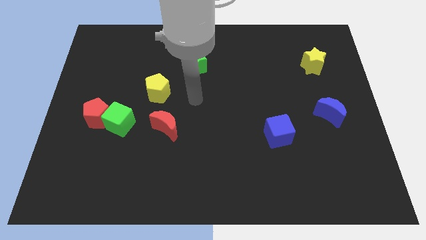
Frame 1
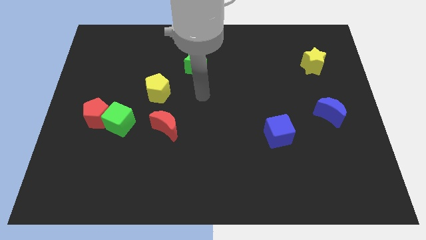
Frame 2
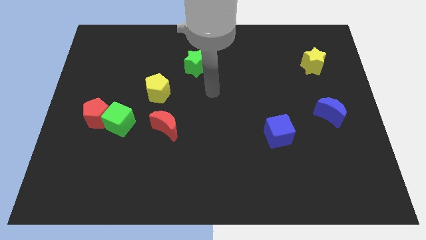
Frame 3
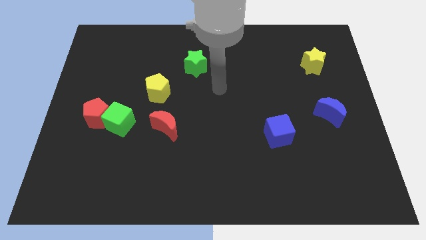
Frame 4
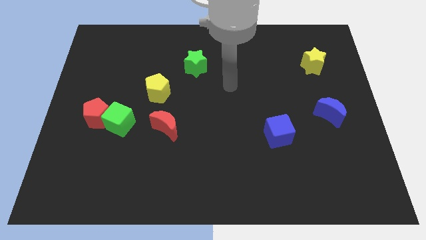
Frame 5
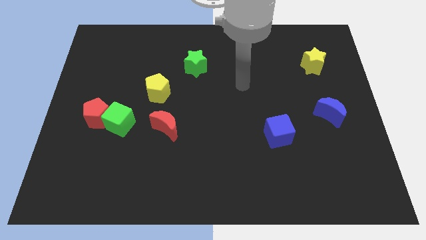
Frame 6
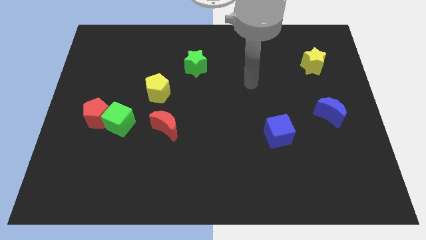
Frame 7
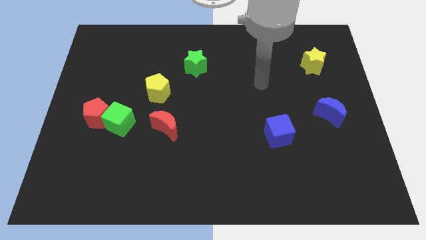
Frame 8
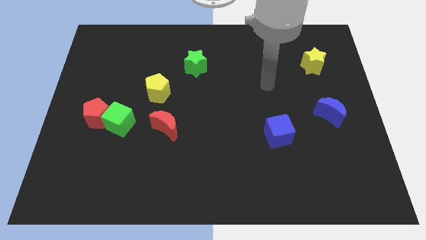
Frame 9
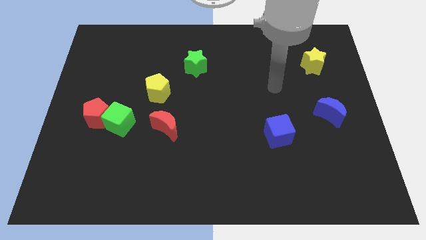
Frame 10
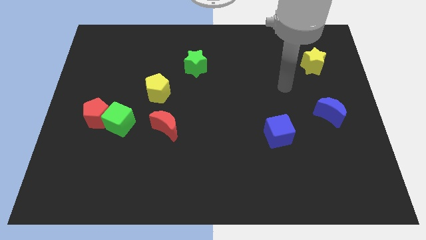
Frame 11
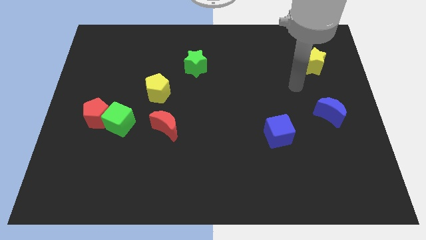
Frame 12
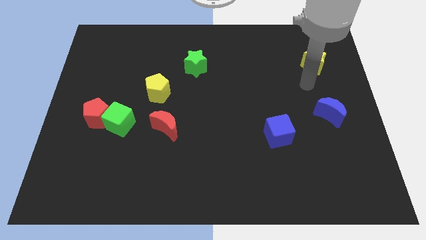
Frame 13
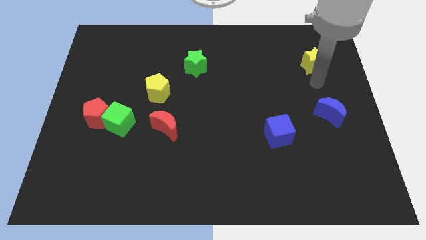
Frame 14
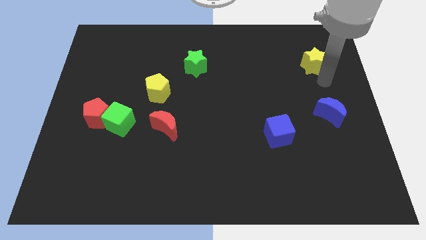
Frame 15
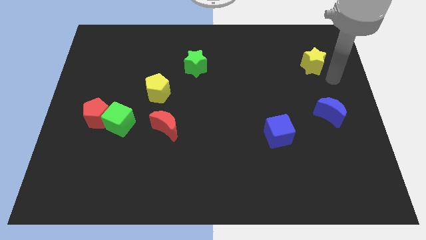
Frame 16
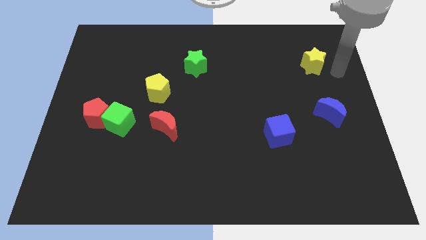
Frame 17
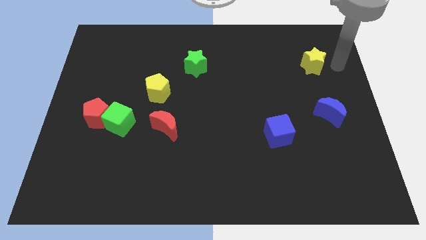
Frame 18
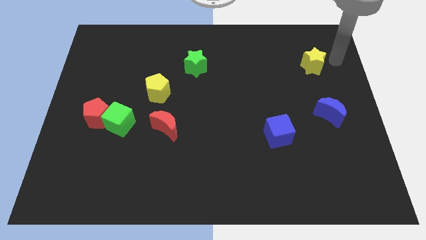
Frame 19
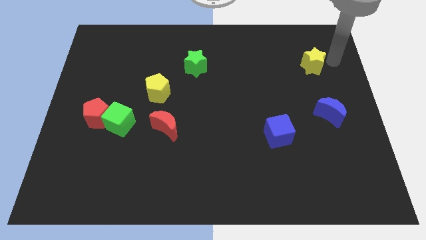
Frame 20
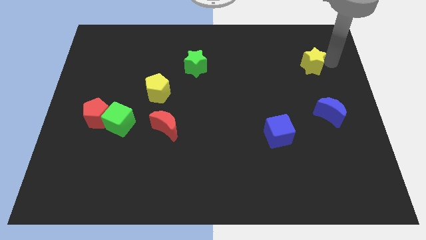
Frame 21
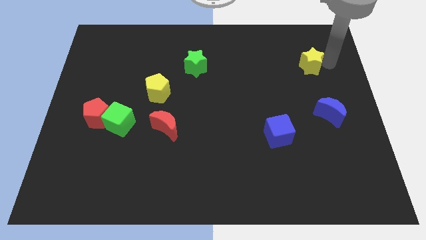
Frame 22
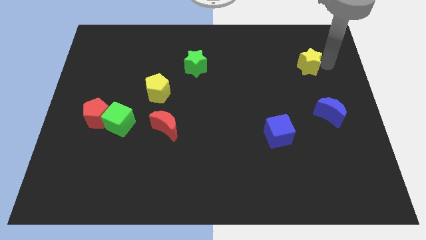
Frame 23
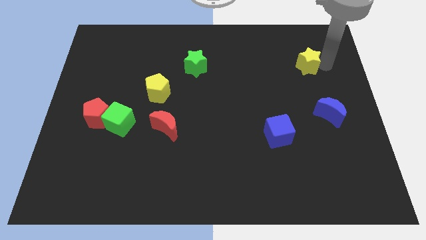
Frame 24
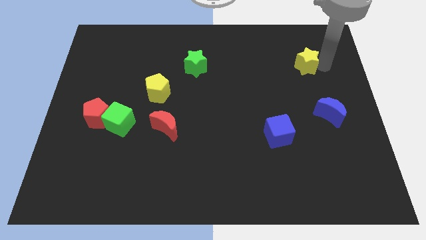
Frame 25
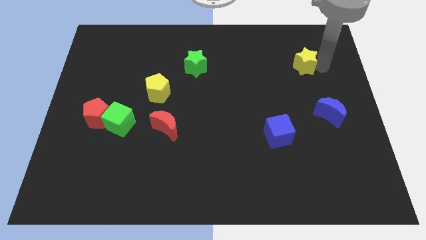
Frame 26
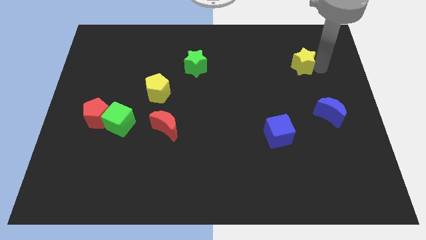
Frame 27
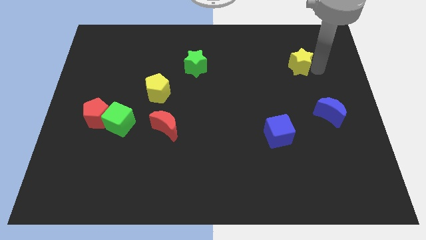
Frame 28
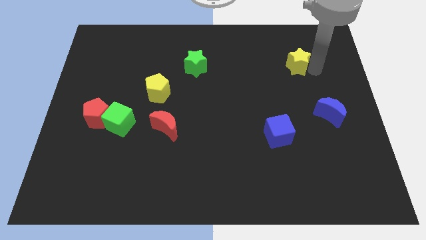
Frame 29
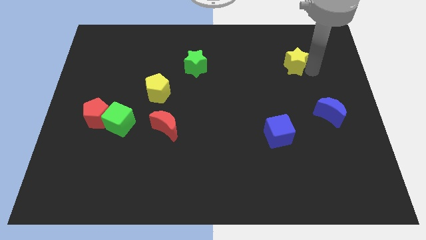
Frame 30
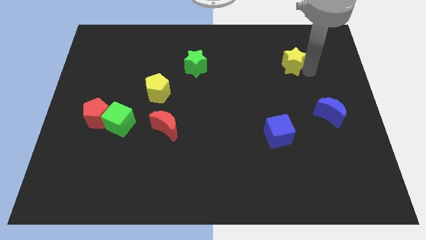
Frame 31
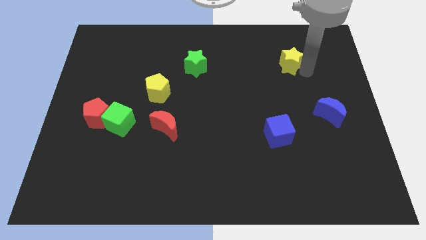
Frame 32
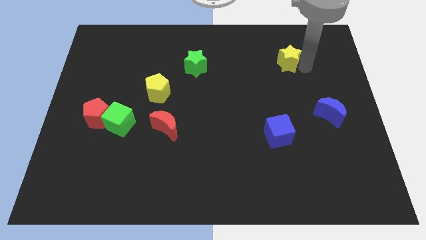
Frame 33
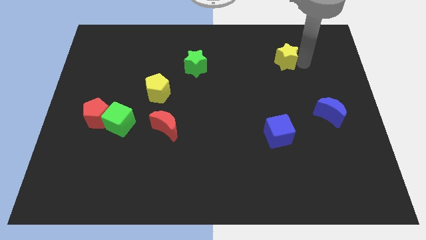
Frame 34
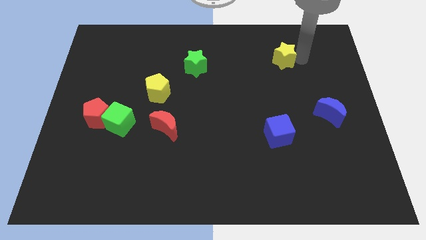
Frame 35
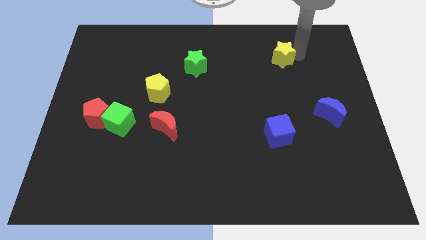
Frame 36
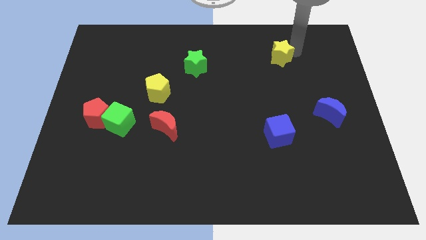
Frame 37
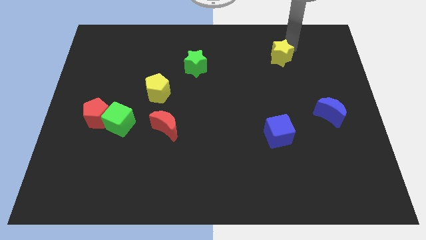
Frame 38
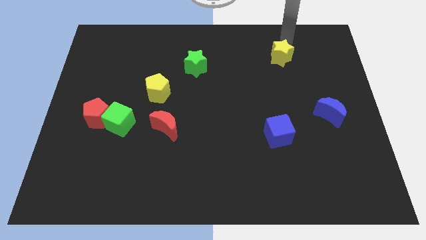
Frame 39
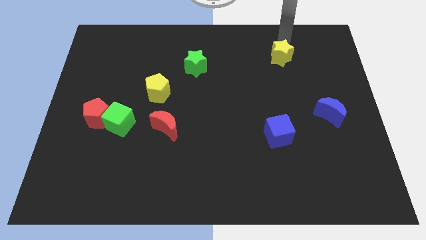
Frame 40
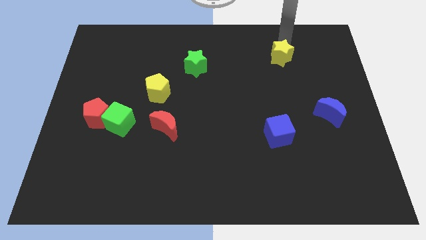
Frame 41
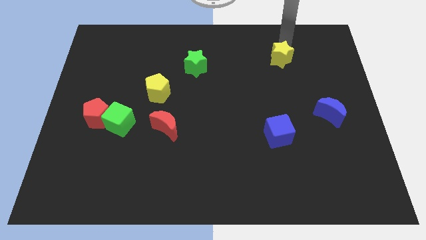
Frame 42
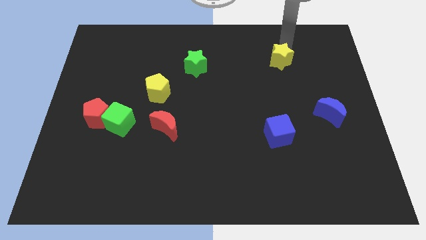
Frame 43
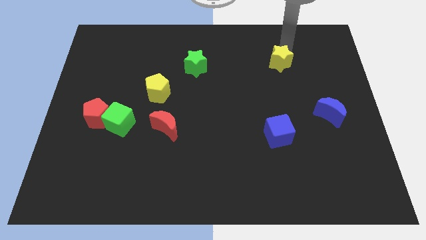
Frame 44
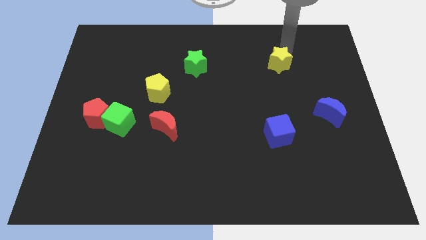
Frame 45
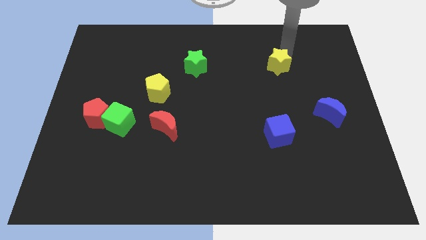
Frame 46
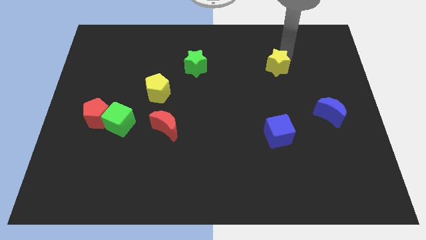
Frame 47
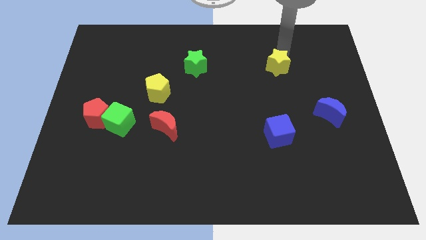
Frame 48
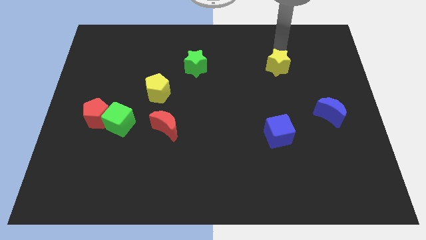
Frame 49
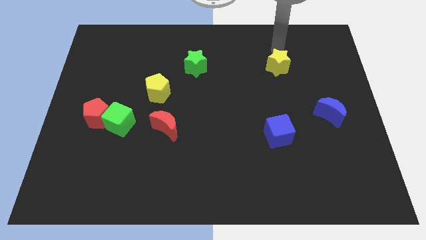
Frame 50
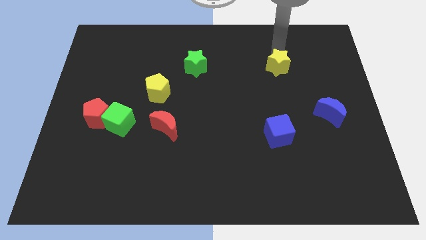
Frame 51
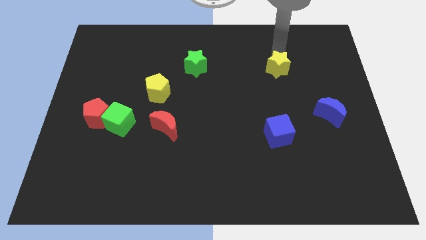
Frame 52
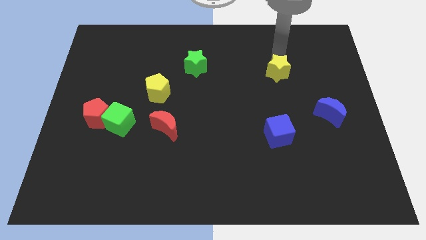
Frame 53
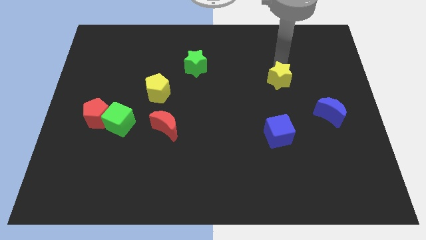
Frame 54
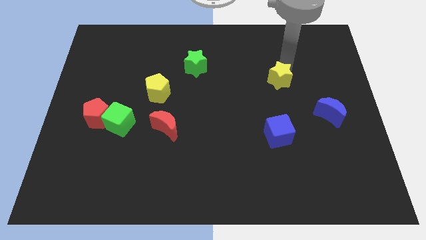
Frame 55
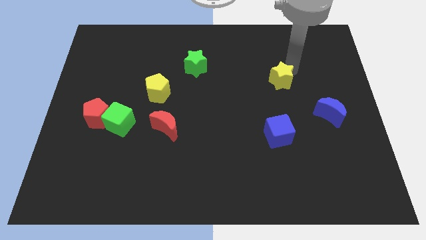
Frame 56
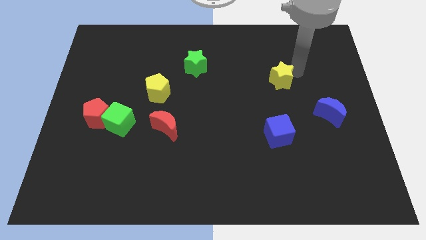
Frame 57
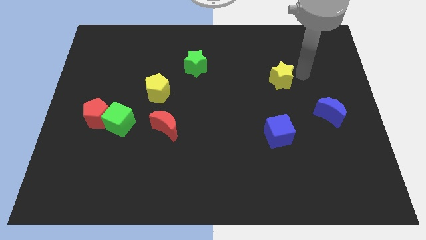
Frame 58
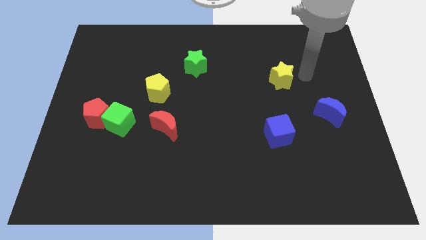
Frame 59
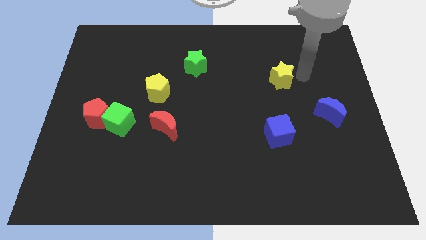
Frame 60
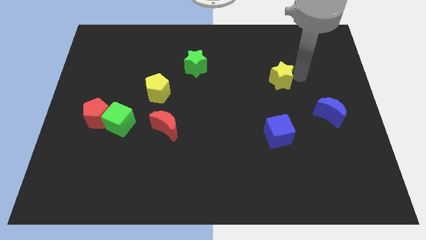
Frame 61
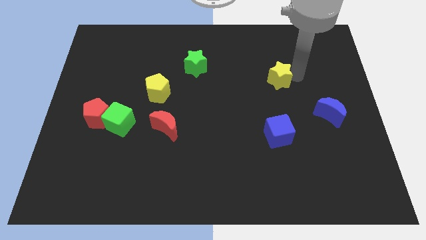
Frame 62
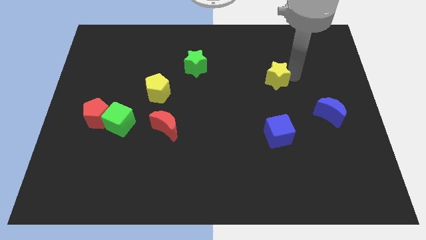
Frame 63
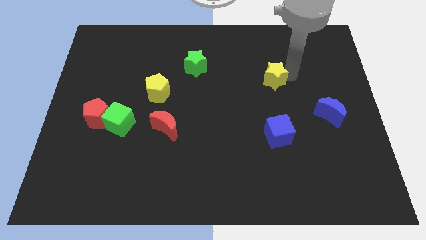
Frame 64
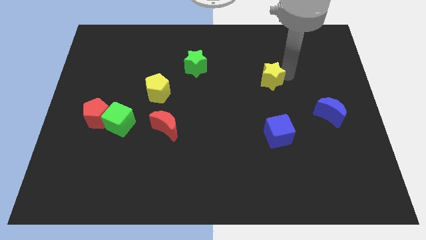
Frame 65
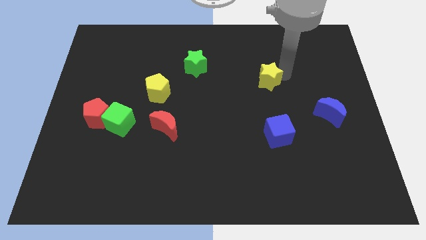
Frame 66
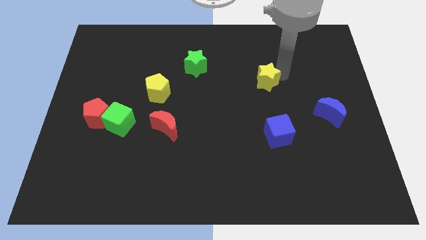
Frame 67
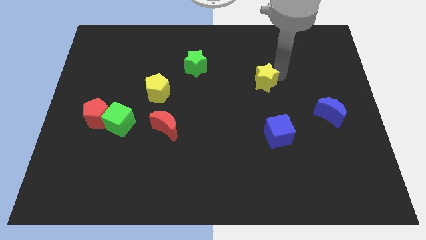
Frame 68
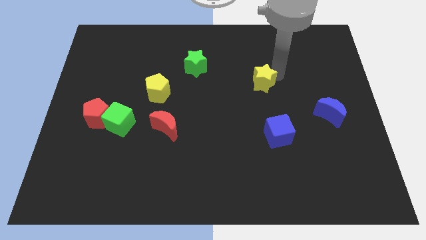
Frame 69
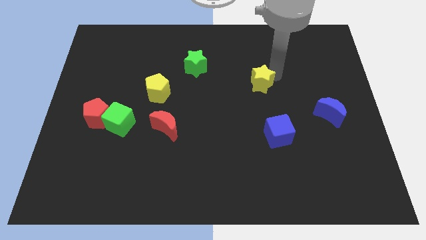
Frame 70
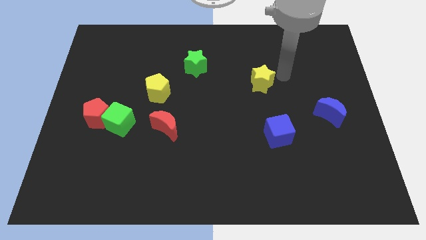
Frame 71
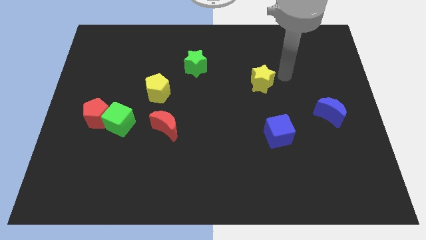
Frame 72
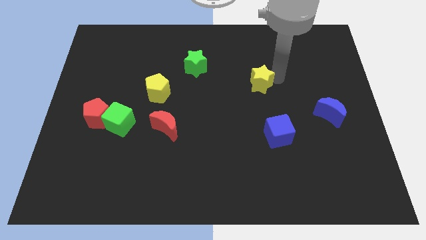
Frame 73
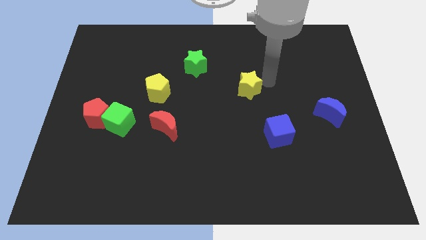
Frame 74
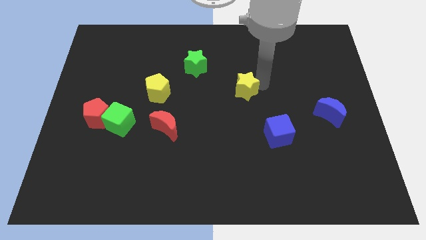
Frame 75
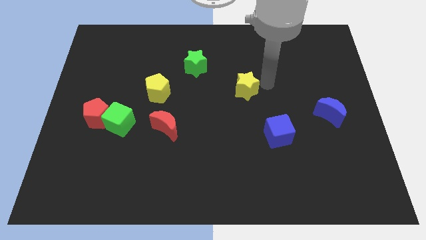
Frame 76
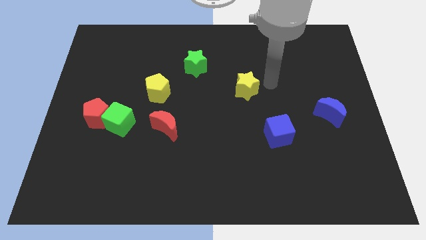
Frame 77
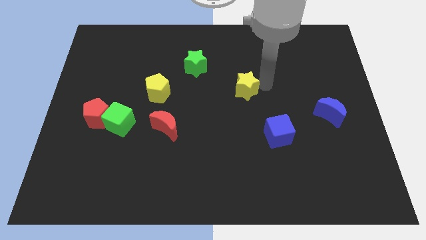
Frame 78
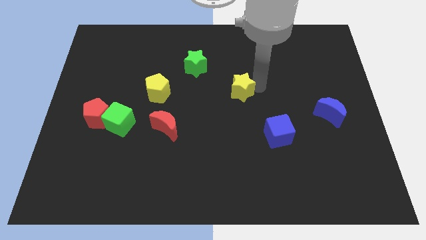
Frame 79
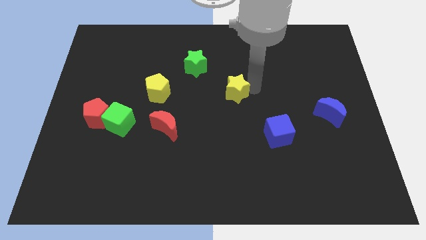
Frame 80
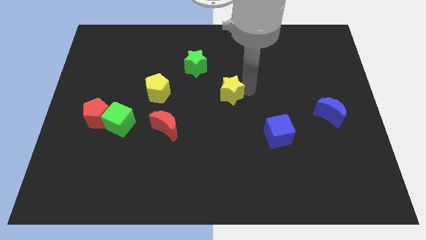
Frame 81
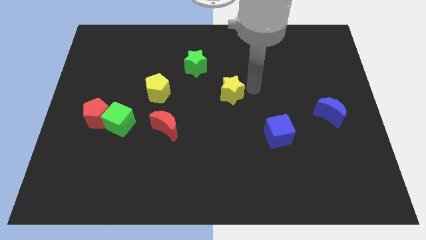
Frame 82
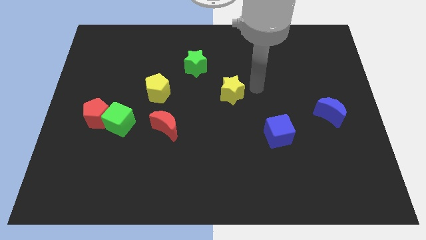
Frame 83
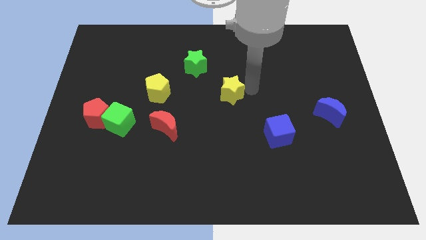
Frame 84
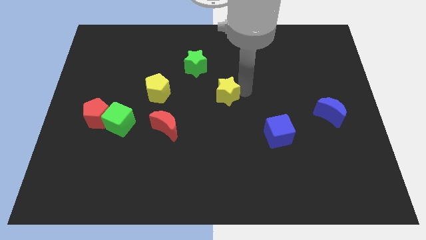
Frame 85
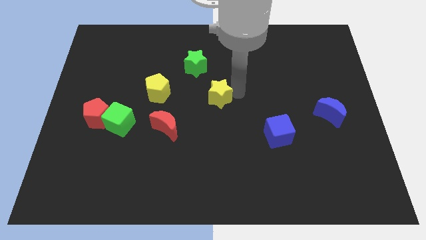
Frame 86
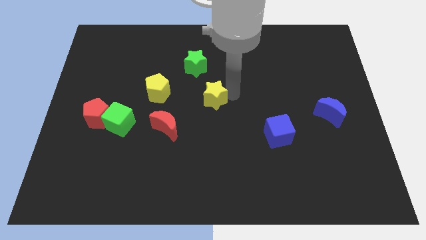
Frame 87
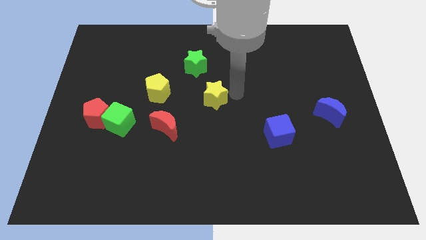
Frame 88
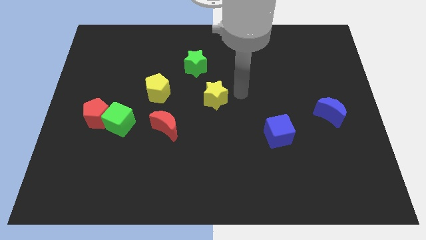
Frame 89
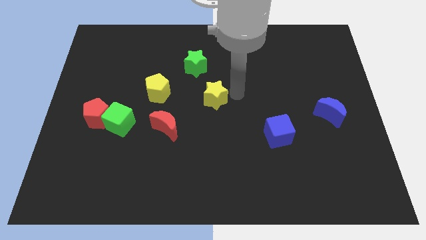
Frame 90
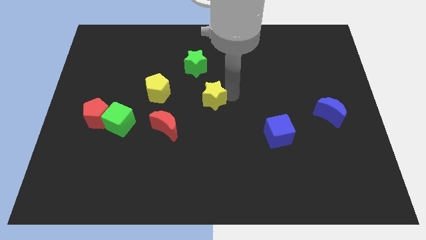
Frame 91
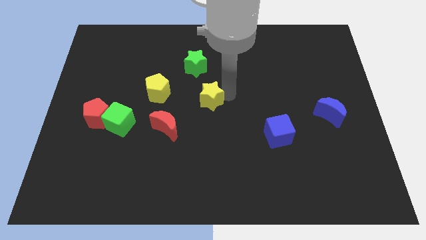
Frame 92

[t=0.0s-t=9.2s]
push the yellow star to the top right of the red moon
